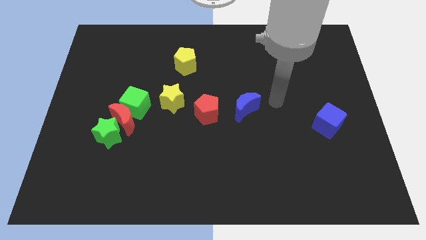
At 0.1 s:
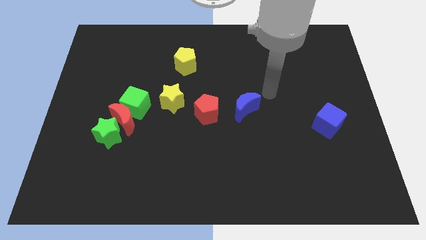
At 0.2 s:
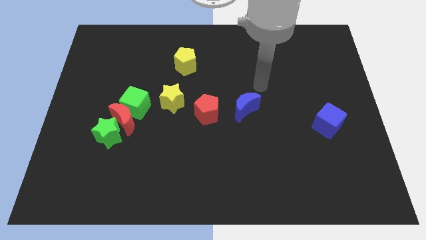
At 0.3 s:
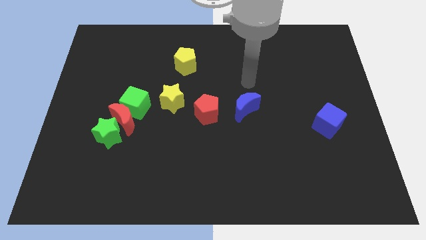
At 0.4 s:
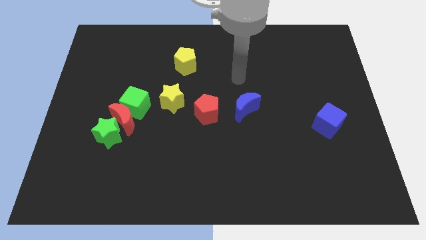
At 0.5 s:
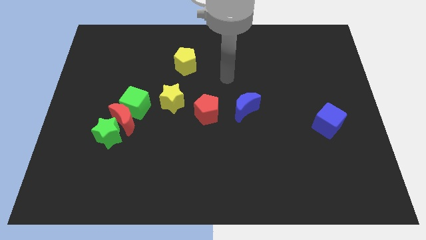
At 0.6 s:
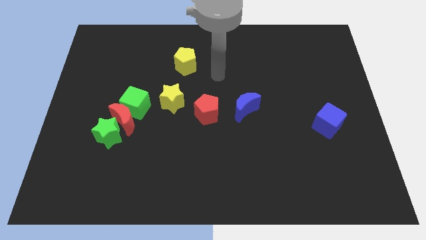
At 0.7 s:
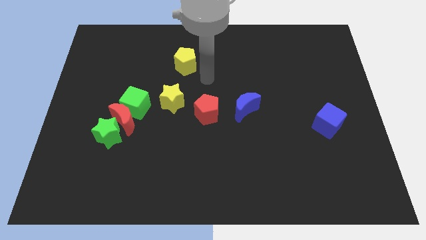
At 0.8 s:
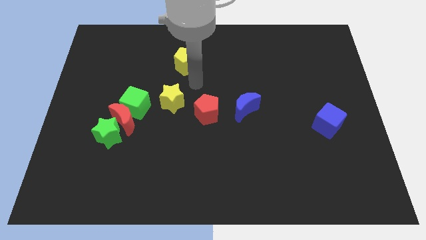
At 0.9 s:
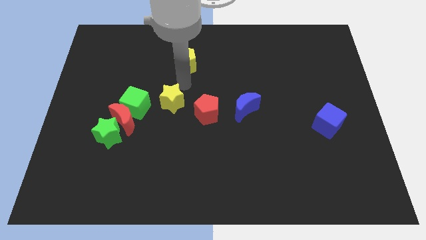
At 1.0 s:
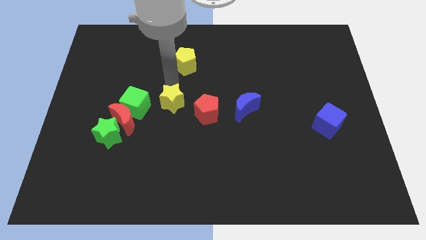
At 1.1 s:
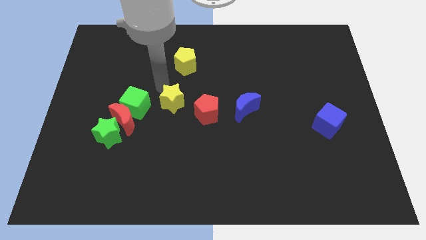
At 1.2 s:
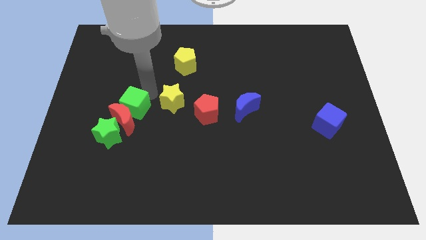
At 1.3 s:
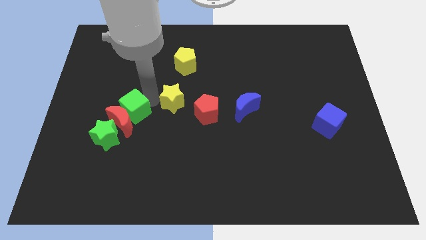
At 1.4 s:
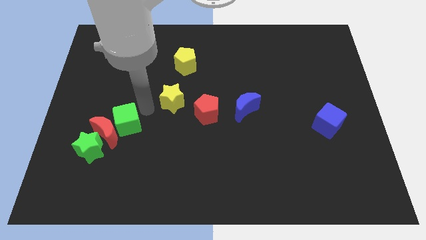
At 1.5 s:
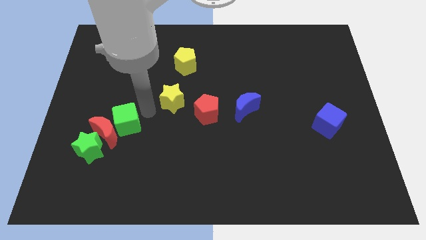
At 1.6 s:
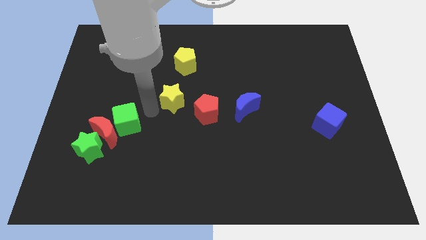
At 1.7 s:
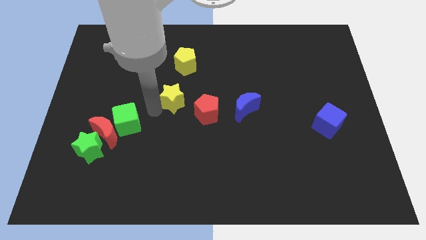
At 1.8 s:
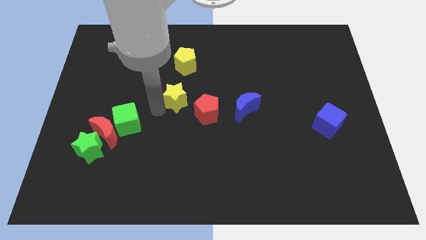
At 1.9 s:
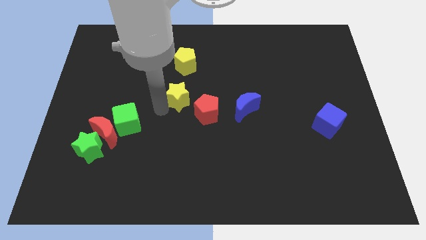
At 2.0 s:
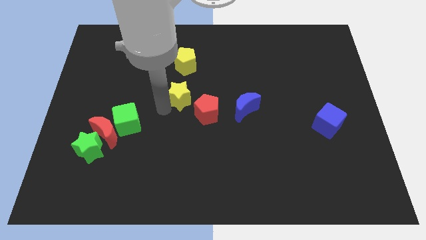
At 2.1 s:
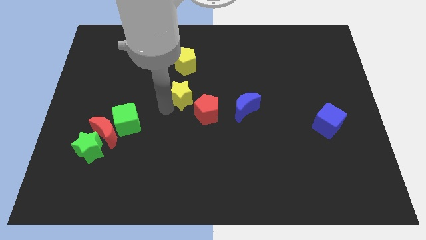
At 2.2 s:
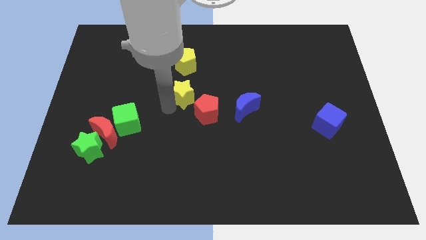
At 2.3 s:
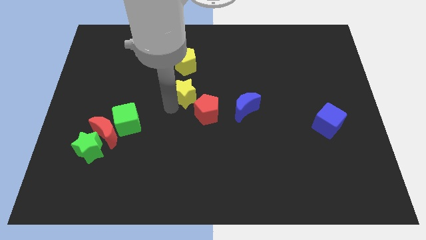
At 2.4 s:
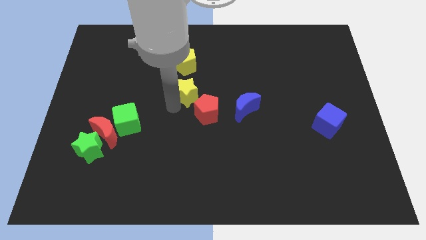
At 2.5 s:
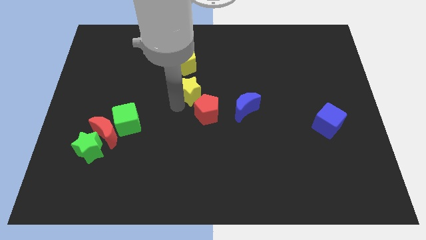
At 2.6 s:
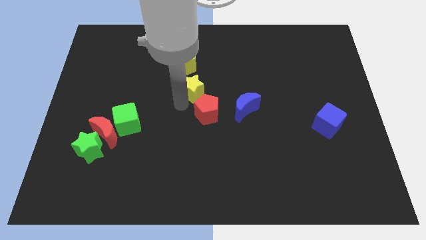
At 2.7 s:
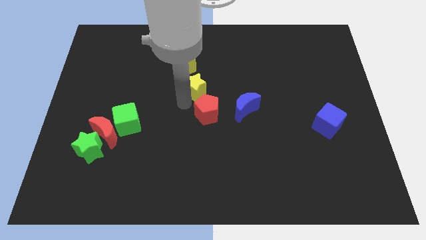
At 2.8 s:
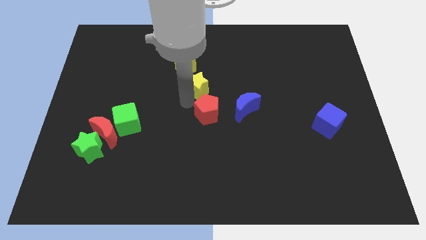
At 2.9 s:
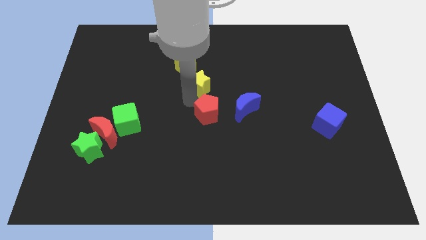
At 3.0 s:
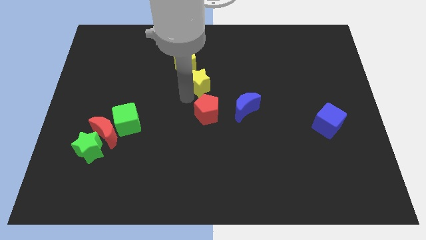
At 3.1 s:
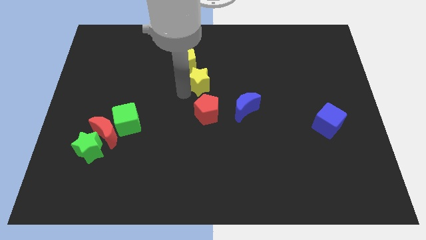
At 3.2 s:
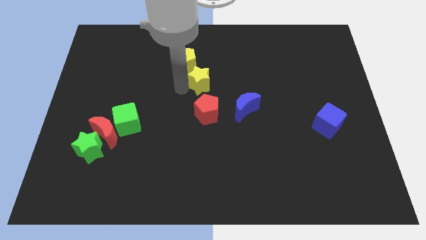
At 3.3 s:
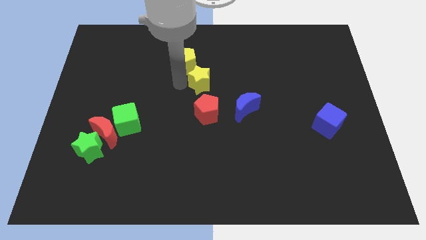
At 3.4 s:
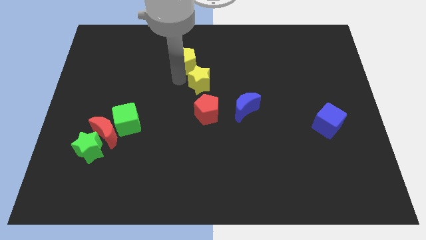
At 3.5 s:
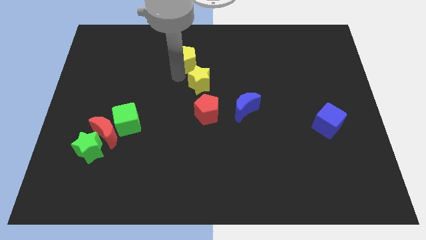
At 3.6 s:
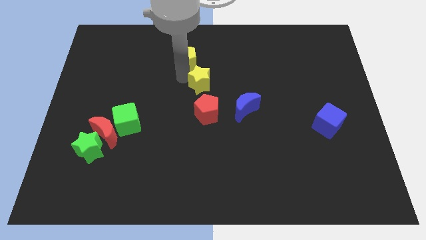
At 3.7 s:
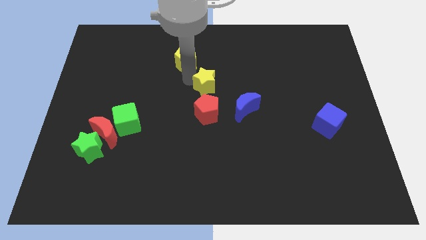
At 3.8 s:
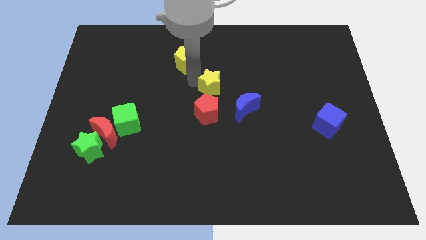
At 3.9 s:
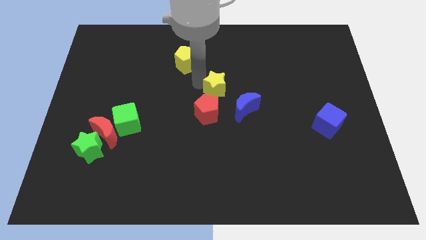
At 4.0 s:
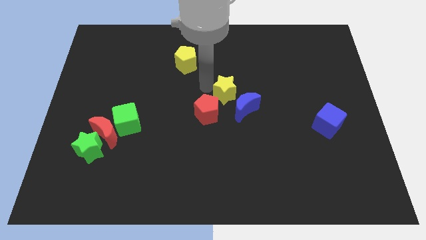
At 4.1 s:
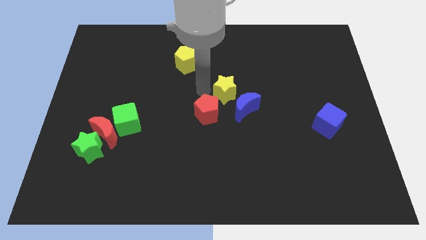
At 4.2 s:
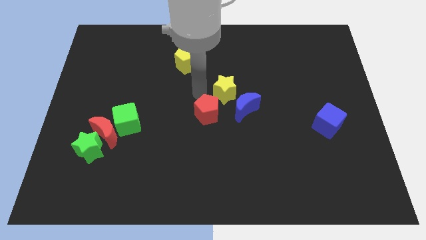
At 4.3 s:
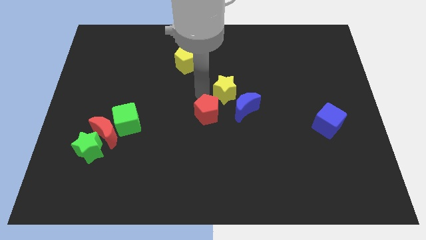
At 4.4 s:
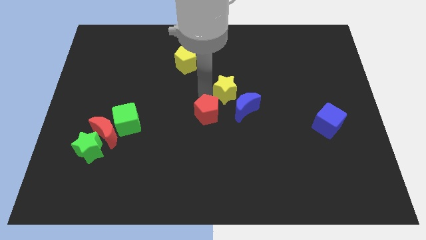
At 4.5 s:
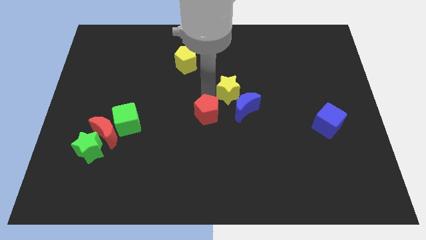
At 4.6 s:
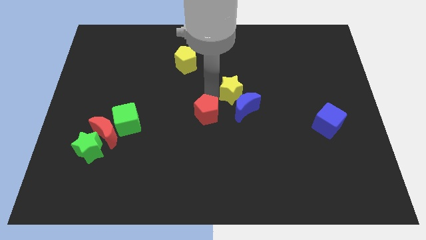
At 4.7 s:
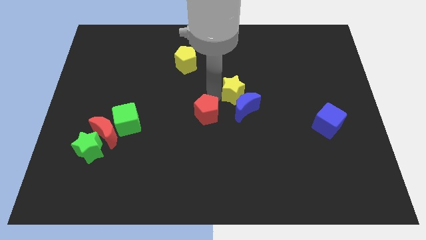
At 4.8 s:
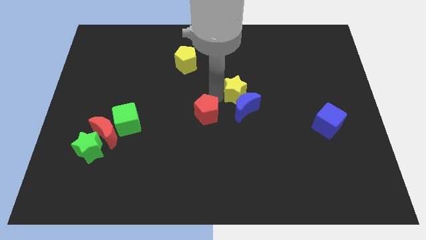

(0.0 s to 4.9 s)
put the yellow star to the top right side of the blue moon

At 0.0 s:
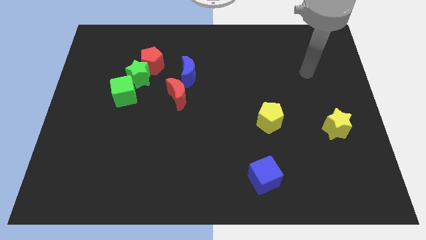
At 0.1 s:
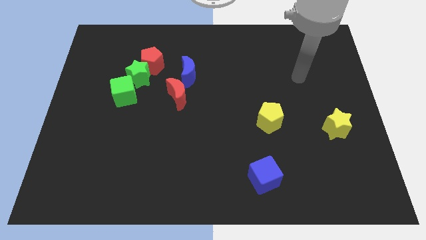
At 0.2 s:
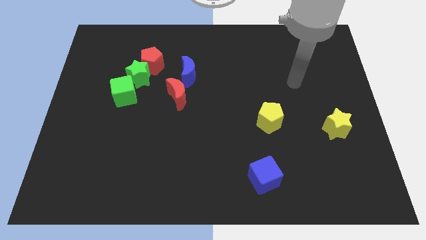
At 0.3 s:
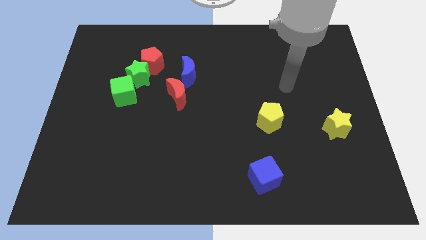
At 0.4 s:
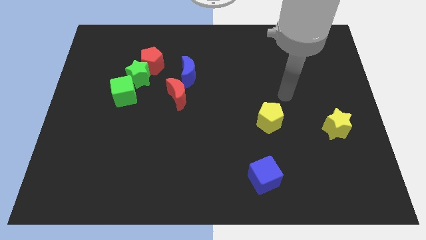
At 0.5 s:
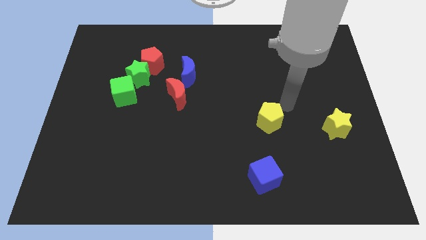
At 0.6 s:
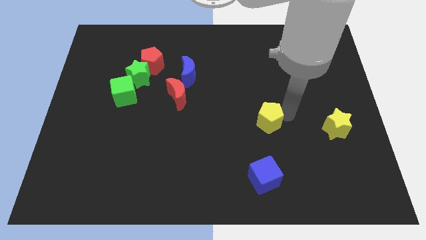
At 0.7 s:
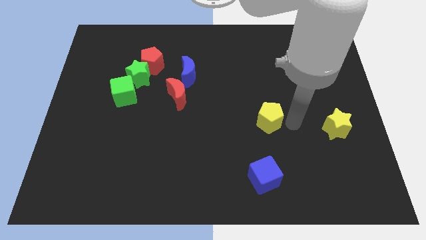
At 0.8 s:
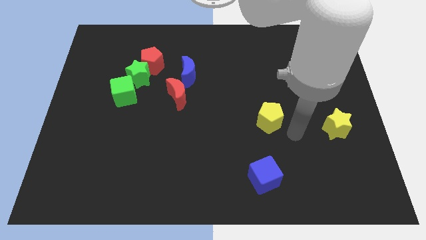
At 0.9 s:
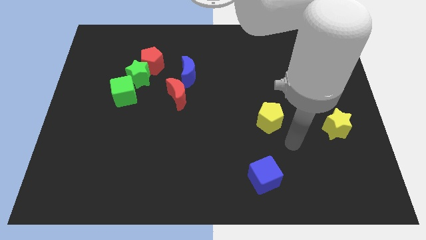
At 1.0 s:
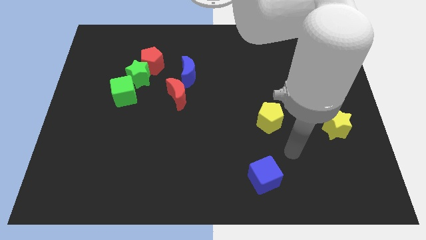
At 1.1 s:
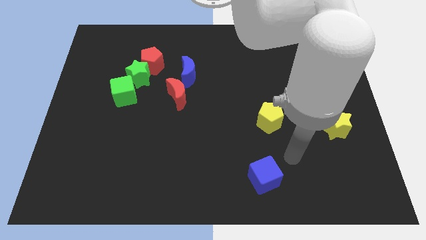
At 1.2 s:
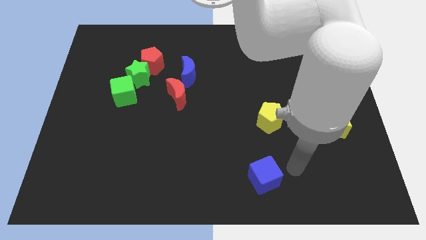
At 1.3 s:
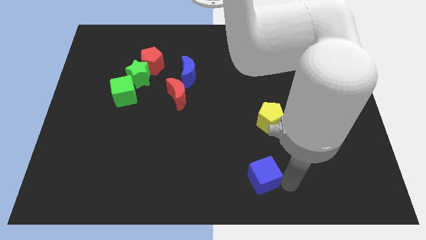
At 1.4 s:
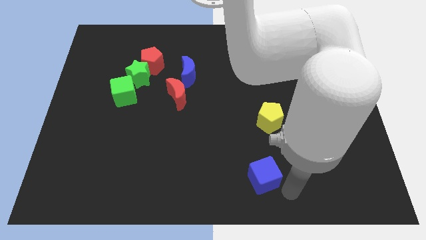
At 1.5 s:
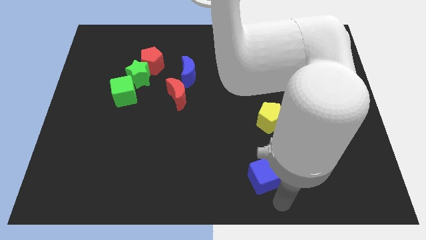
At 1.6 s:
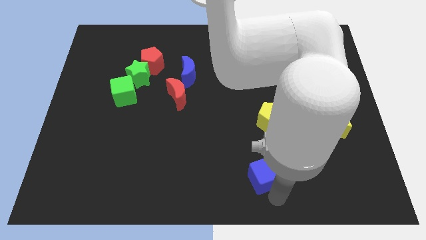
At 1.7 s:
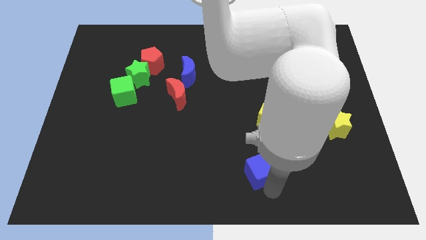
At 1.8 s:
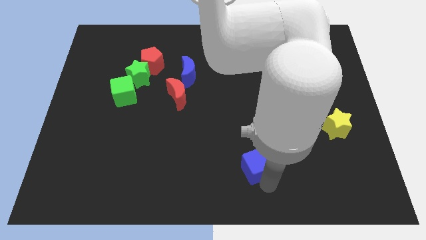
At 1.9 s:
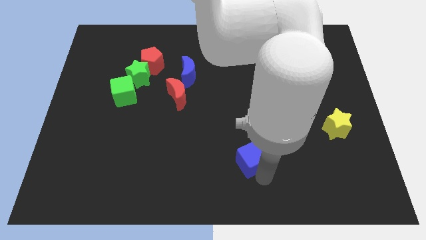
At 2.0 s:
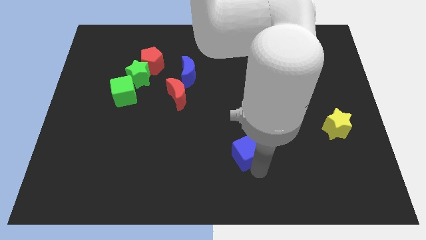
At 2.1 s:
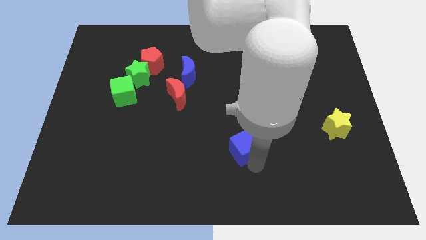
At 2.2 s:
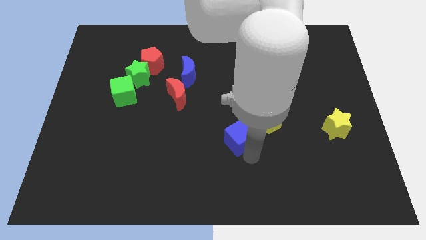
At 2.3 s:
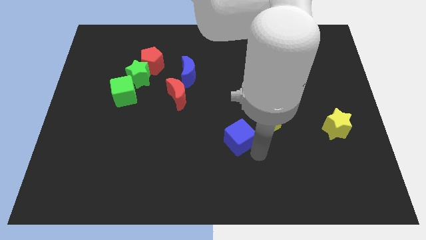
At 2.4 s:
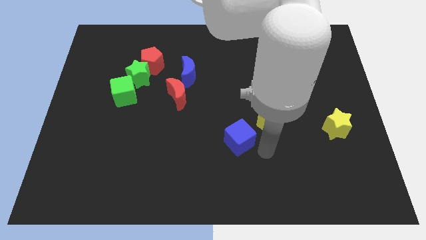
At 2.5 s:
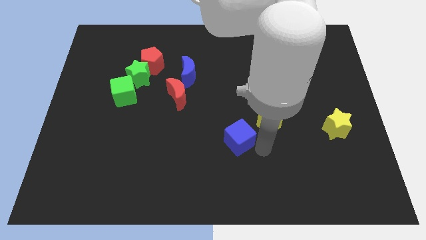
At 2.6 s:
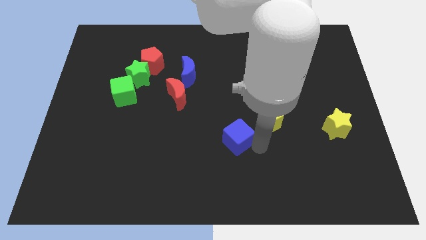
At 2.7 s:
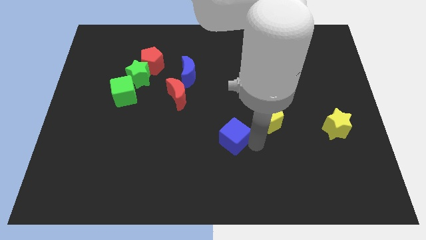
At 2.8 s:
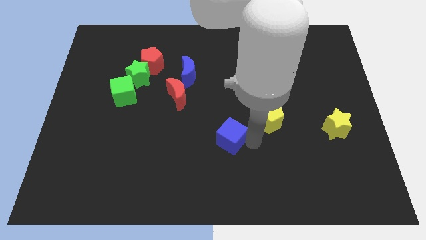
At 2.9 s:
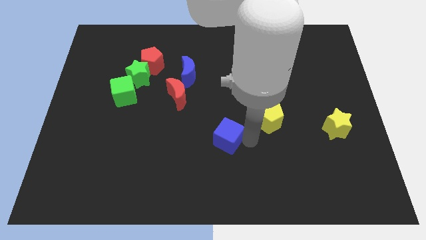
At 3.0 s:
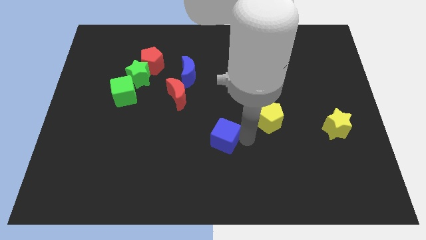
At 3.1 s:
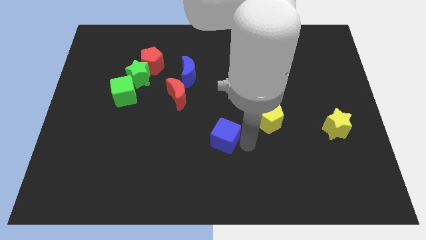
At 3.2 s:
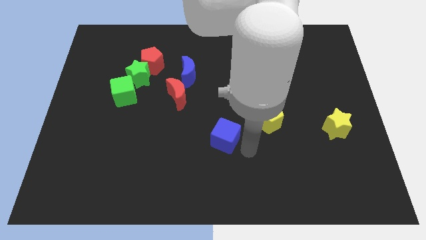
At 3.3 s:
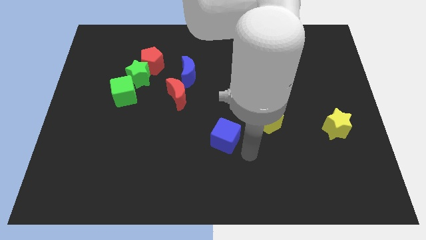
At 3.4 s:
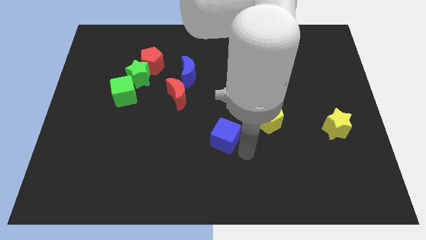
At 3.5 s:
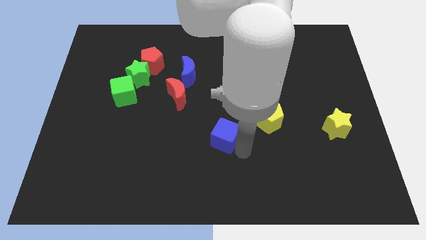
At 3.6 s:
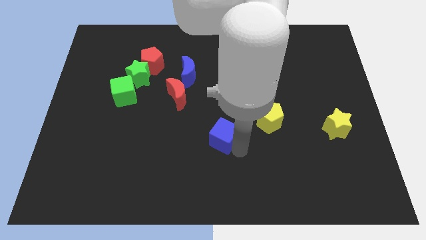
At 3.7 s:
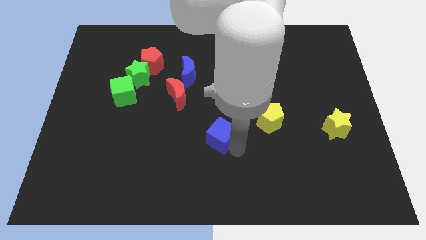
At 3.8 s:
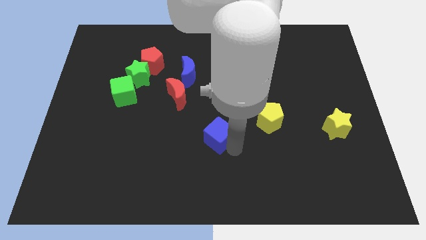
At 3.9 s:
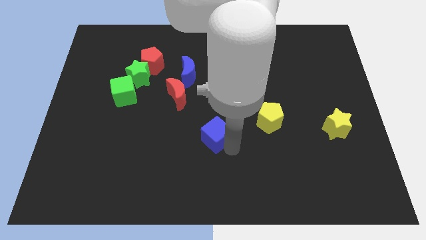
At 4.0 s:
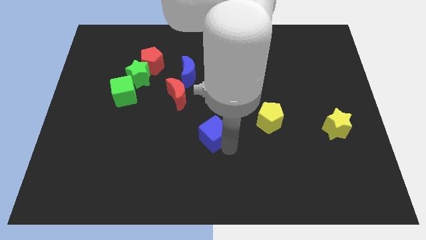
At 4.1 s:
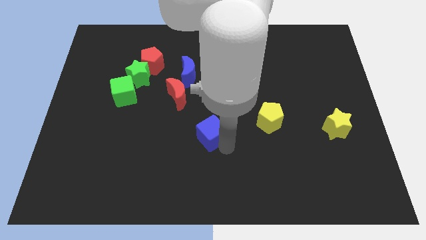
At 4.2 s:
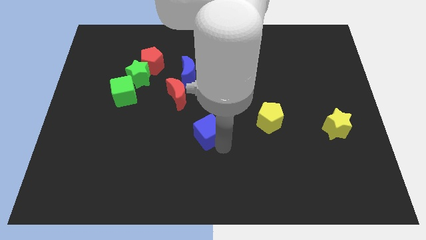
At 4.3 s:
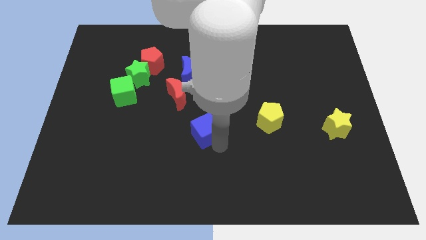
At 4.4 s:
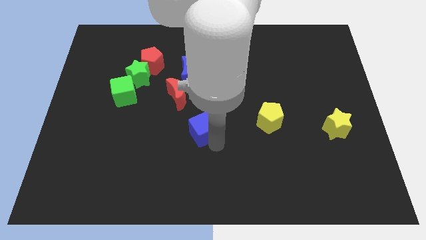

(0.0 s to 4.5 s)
put the blue cube diagonally down and to the right of the red moon
